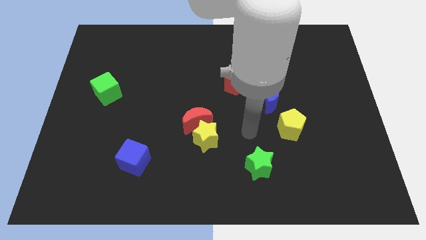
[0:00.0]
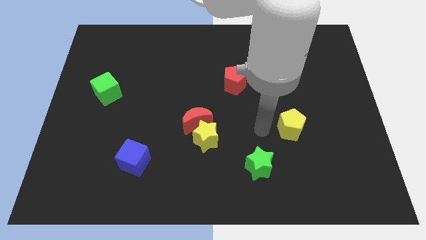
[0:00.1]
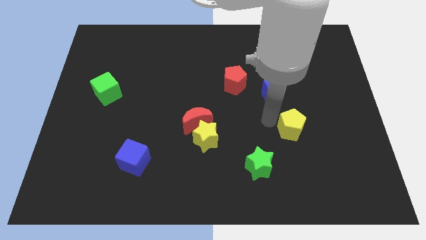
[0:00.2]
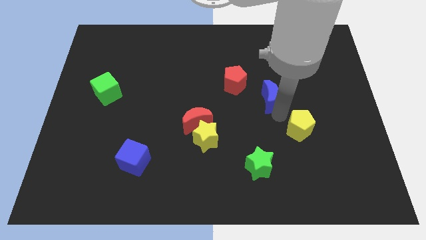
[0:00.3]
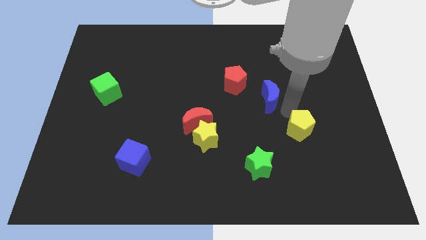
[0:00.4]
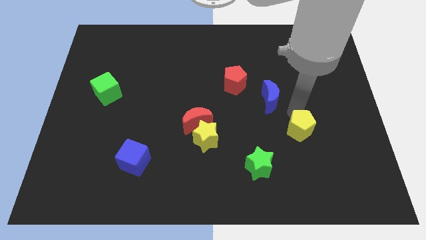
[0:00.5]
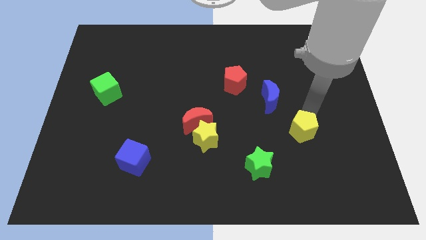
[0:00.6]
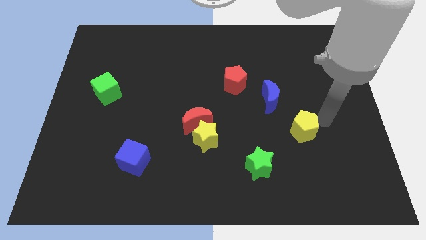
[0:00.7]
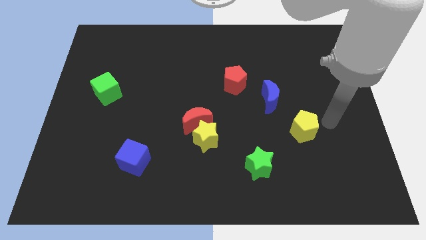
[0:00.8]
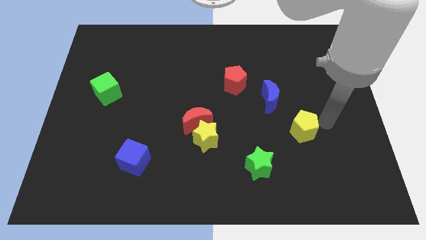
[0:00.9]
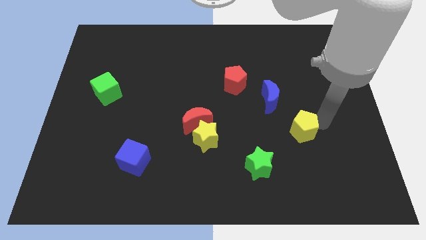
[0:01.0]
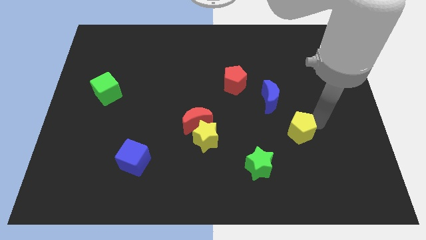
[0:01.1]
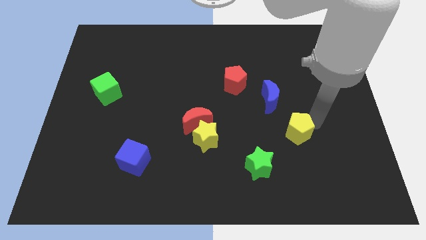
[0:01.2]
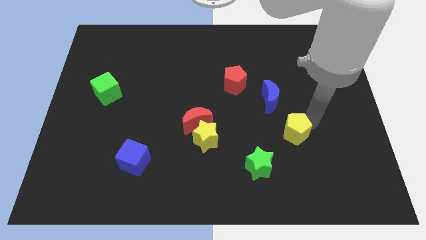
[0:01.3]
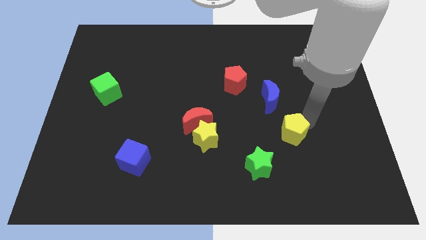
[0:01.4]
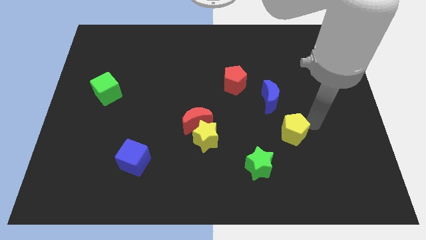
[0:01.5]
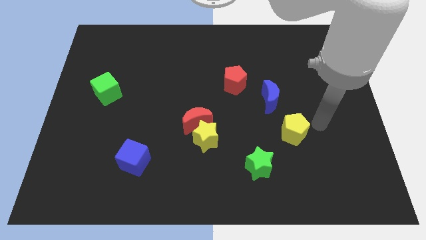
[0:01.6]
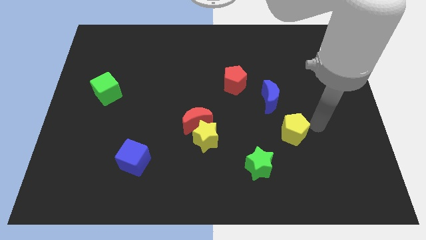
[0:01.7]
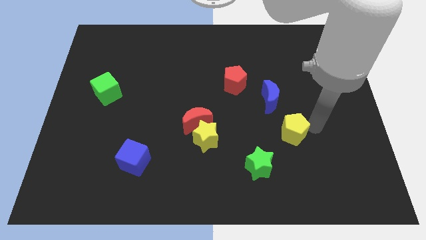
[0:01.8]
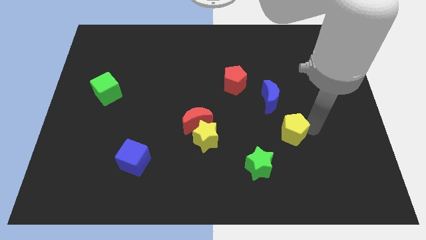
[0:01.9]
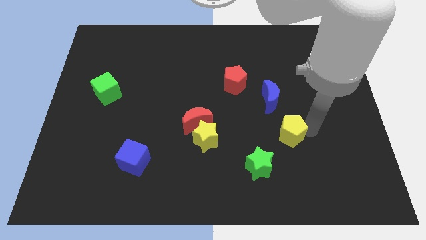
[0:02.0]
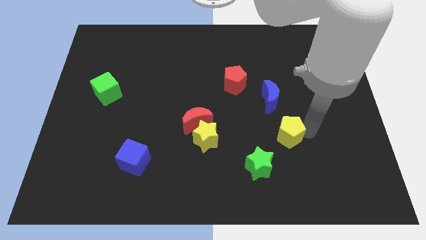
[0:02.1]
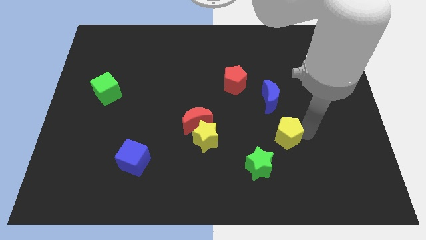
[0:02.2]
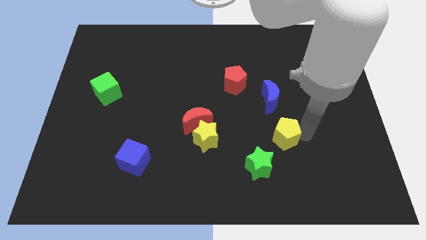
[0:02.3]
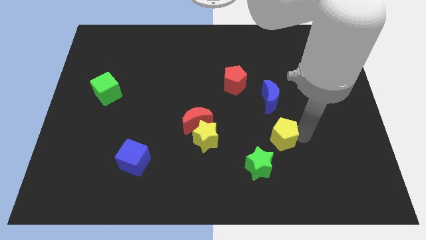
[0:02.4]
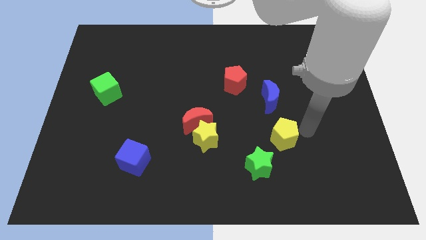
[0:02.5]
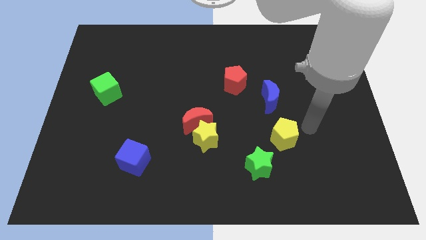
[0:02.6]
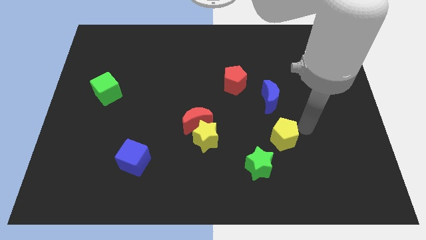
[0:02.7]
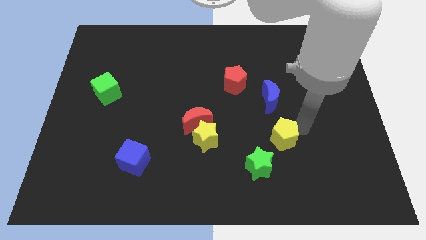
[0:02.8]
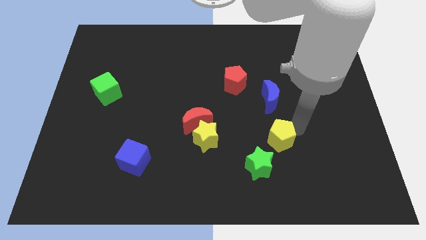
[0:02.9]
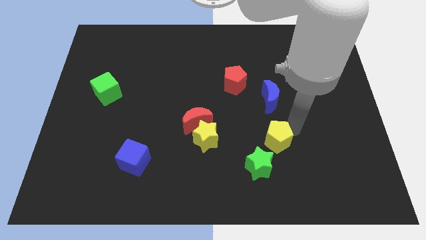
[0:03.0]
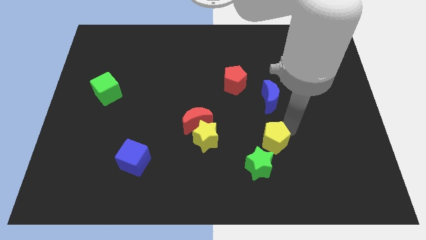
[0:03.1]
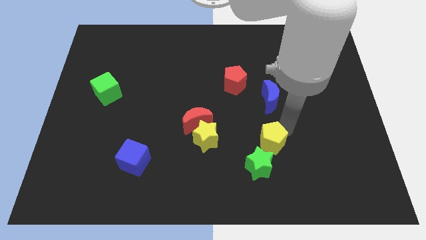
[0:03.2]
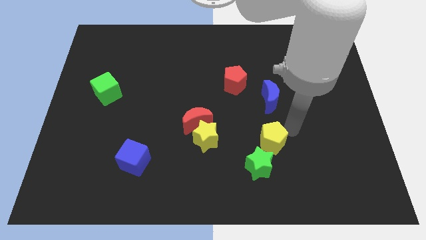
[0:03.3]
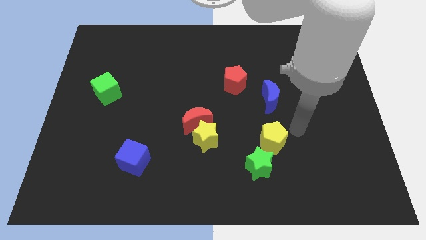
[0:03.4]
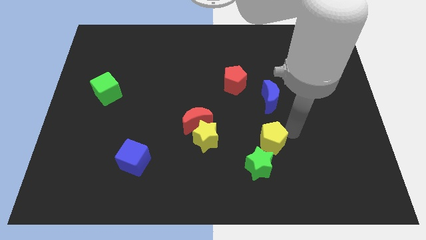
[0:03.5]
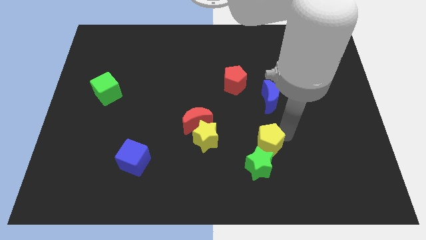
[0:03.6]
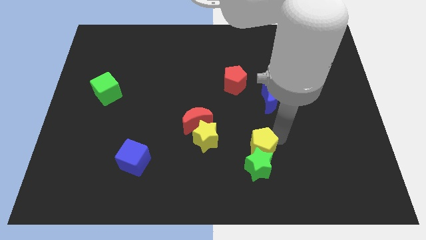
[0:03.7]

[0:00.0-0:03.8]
move the yellow pentagon a little downwards and left

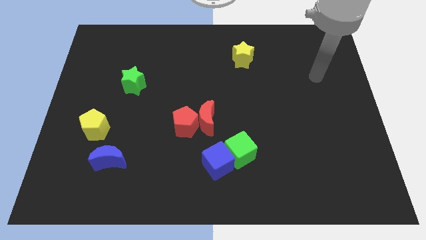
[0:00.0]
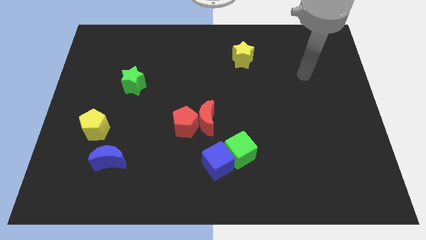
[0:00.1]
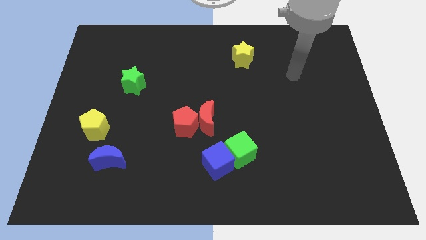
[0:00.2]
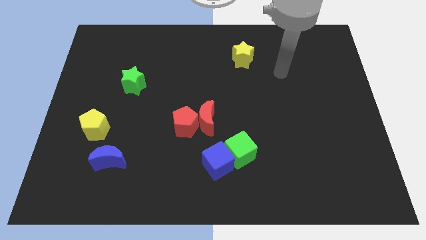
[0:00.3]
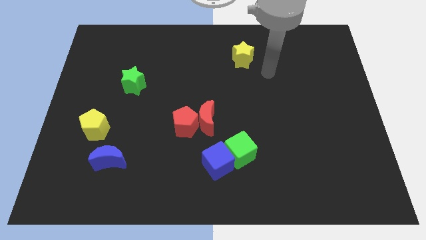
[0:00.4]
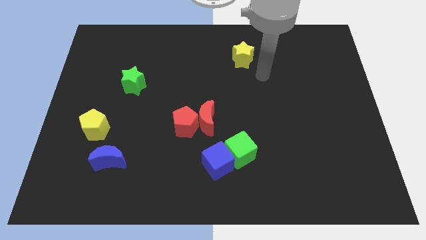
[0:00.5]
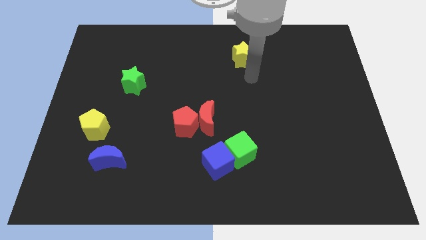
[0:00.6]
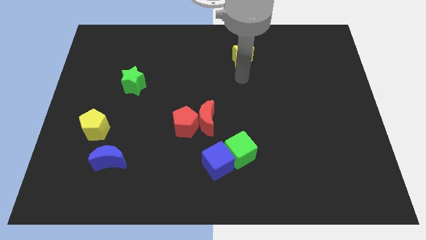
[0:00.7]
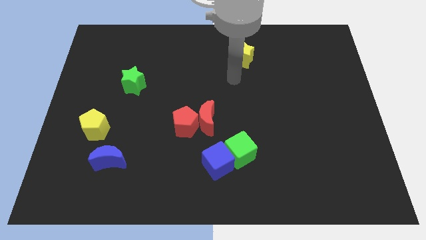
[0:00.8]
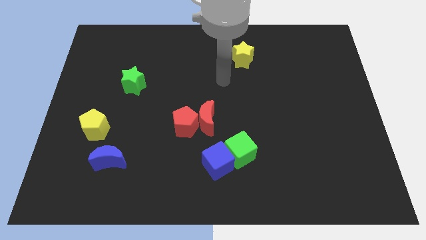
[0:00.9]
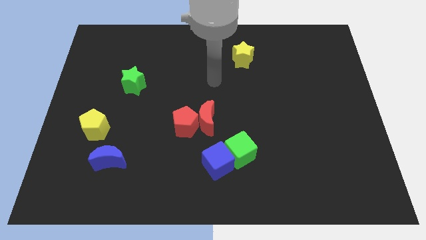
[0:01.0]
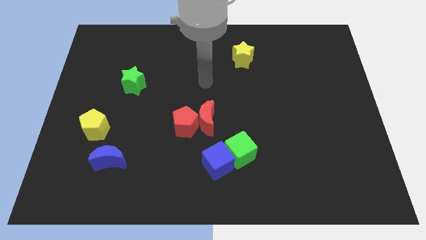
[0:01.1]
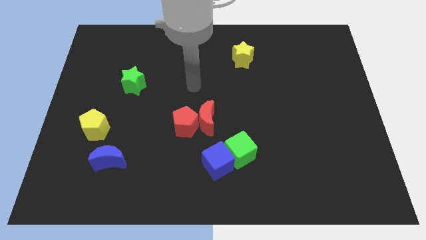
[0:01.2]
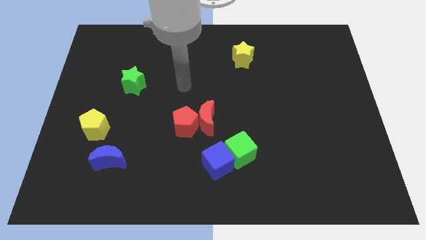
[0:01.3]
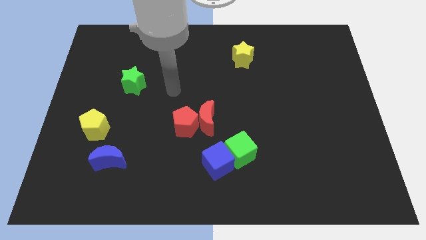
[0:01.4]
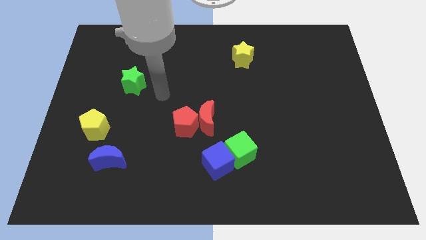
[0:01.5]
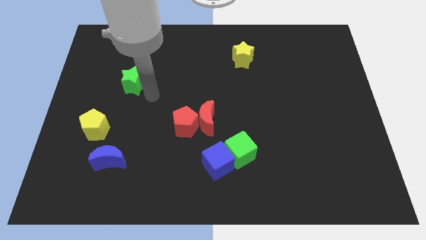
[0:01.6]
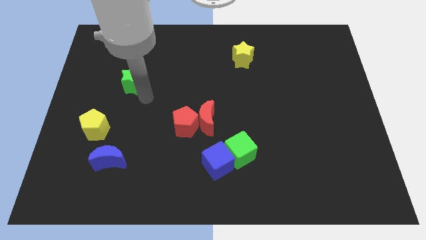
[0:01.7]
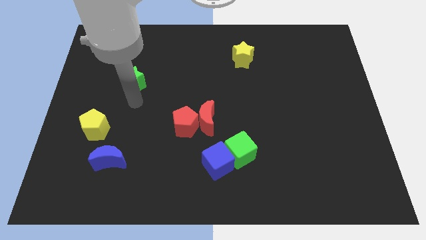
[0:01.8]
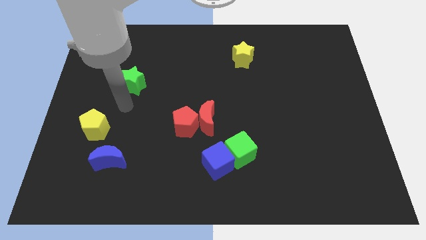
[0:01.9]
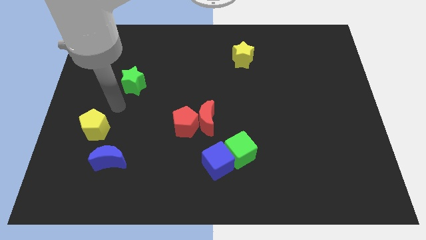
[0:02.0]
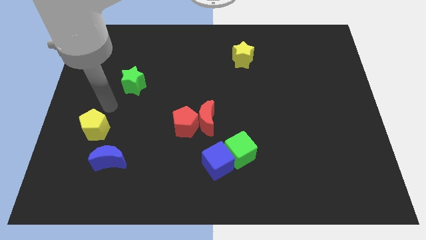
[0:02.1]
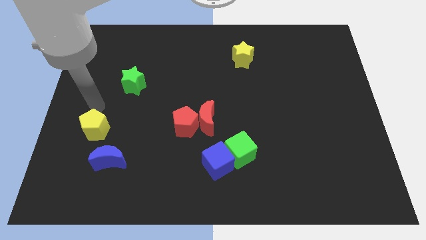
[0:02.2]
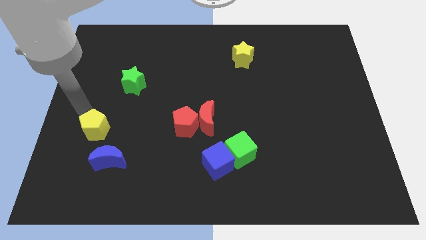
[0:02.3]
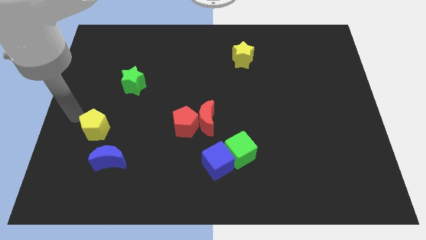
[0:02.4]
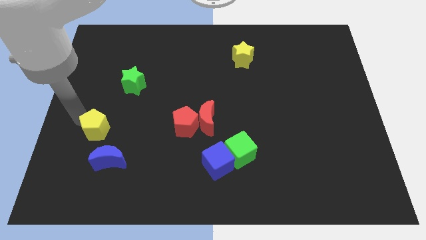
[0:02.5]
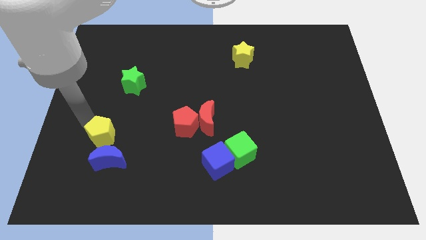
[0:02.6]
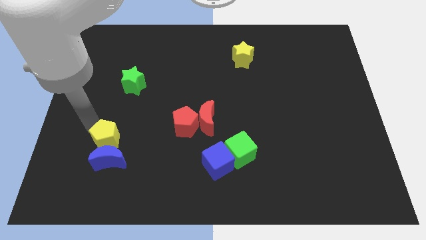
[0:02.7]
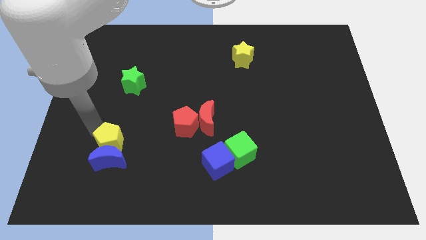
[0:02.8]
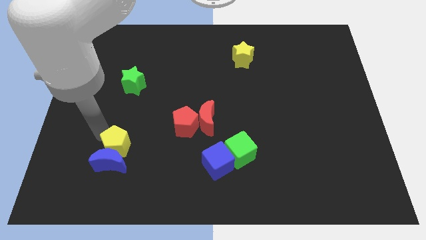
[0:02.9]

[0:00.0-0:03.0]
slightly push the yellow pentagon downwards and right diagonally

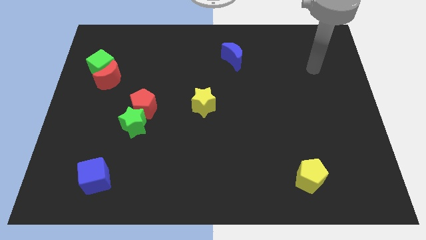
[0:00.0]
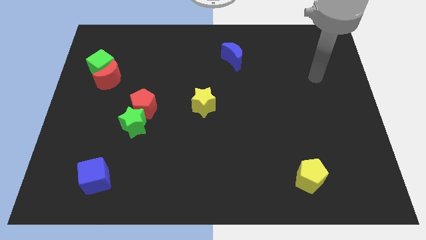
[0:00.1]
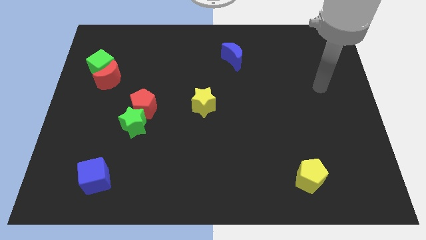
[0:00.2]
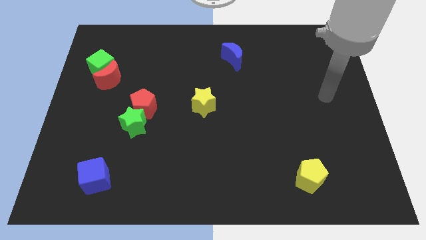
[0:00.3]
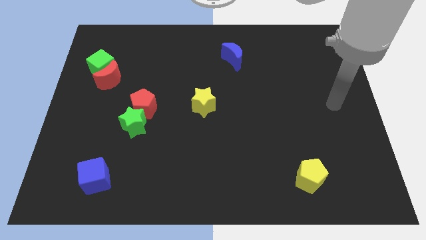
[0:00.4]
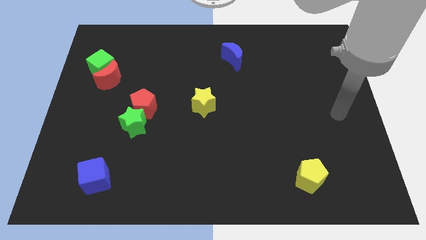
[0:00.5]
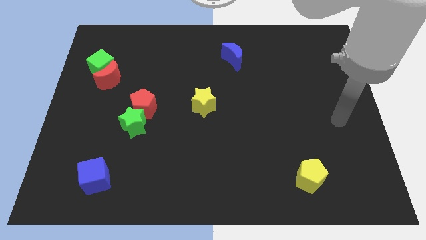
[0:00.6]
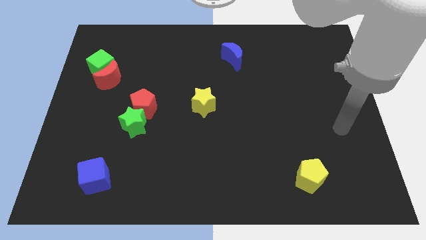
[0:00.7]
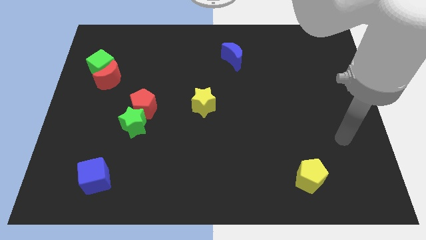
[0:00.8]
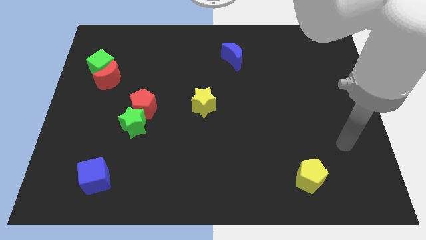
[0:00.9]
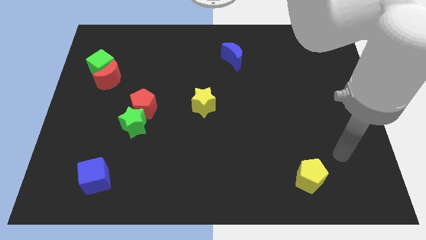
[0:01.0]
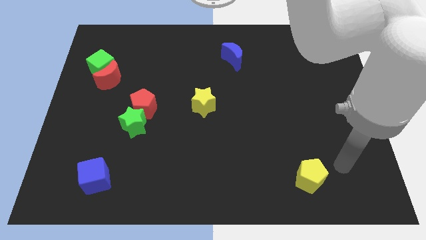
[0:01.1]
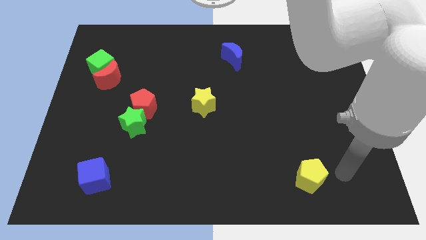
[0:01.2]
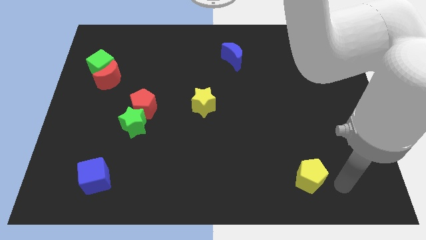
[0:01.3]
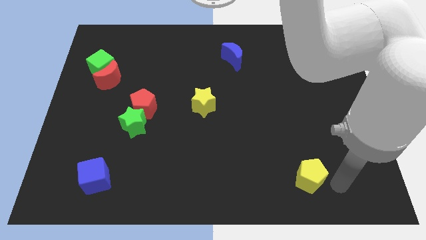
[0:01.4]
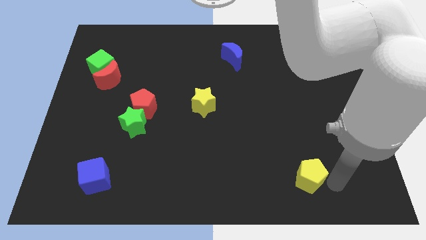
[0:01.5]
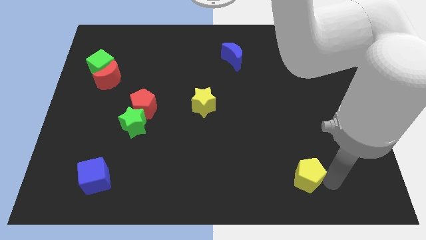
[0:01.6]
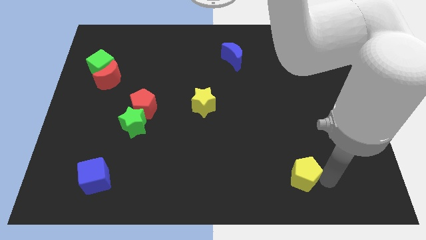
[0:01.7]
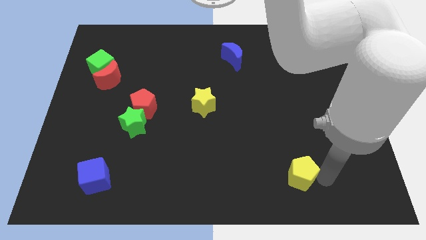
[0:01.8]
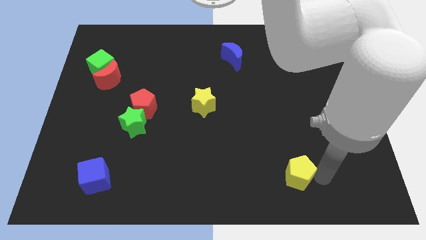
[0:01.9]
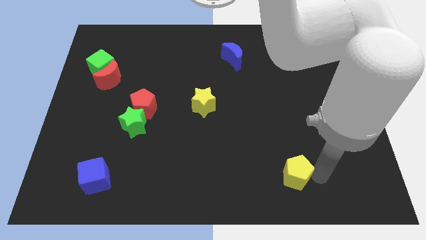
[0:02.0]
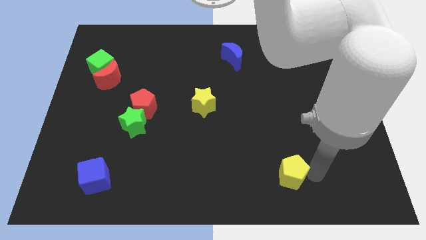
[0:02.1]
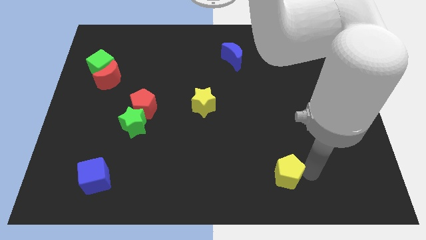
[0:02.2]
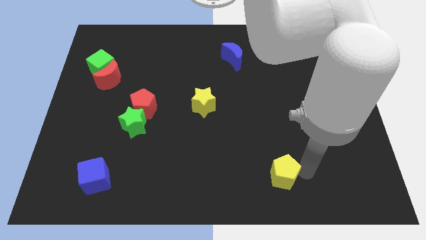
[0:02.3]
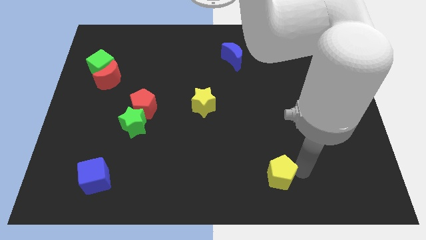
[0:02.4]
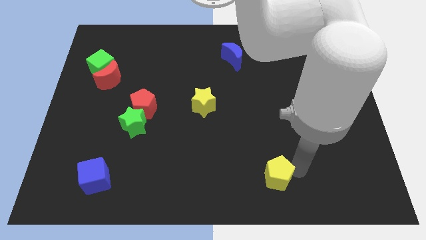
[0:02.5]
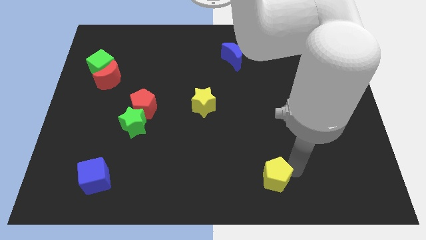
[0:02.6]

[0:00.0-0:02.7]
slightly push the yellow pentagon to the left
